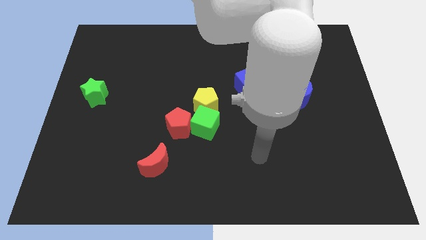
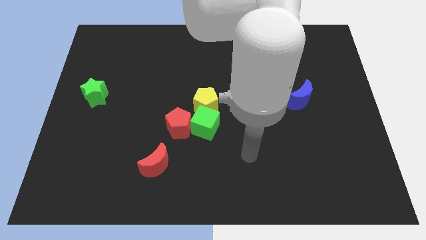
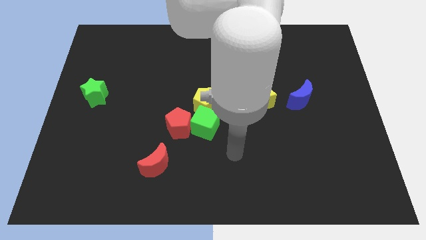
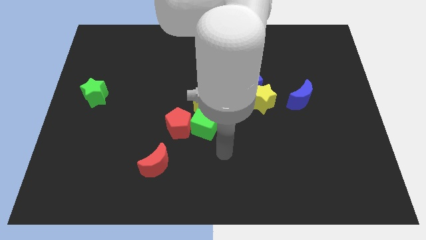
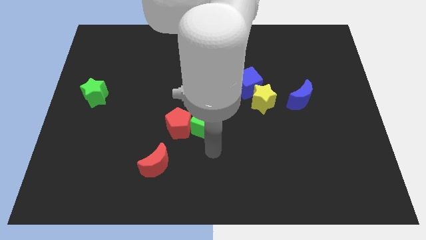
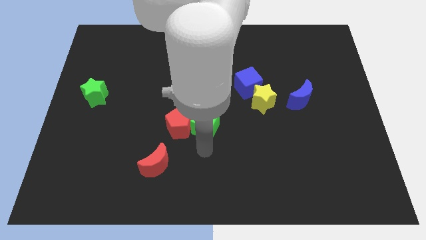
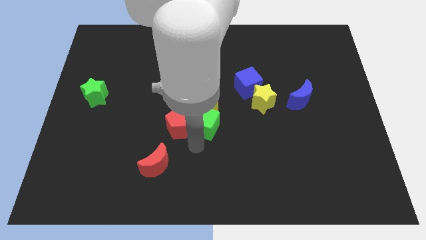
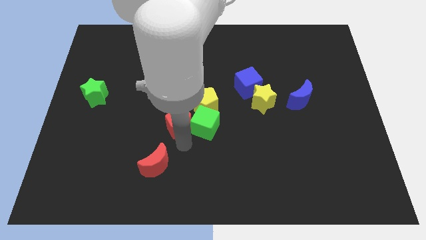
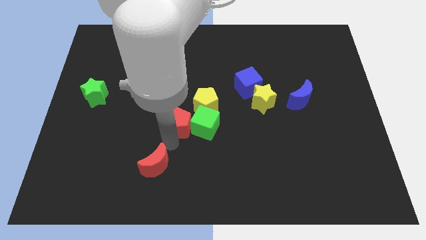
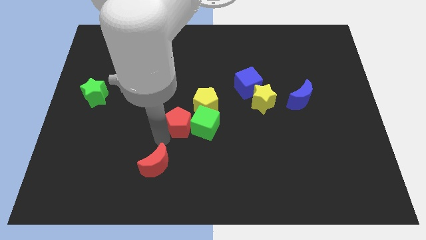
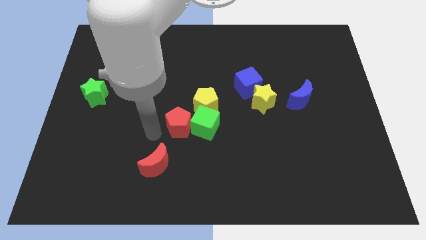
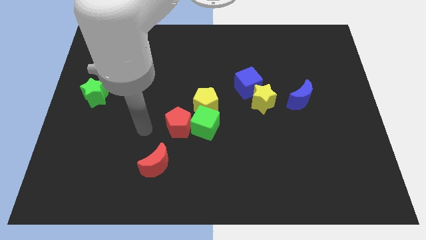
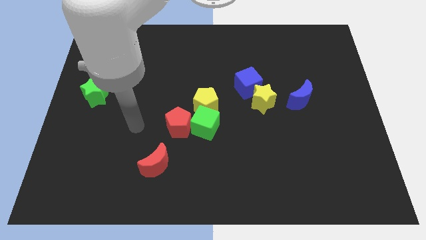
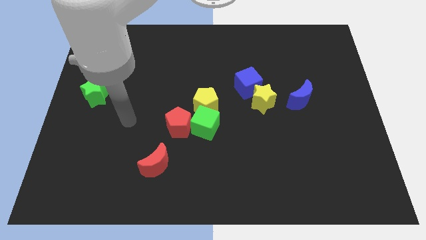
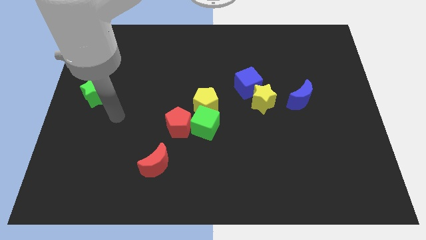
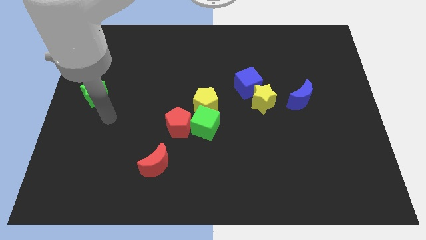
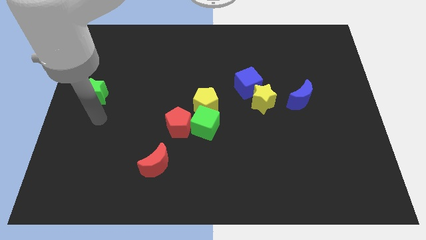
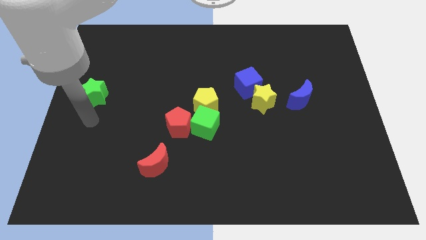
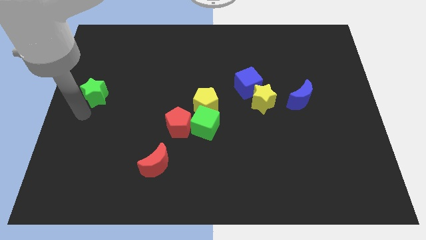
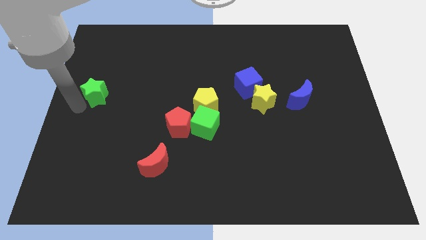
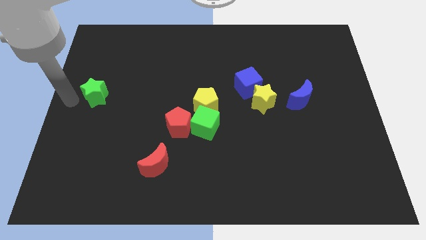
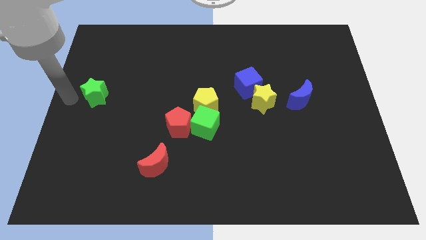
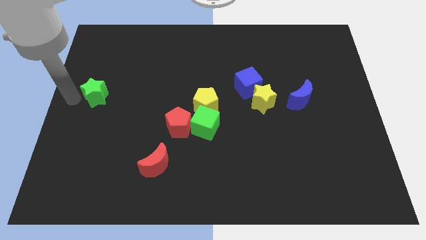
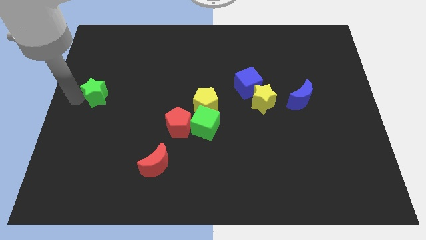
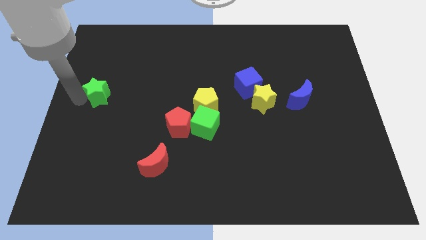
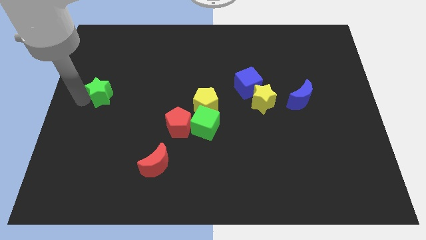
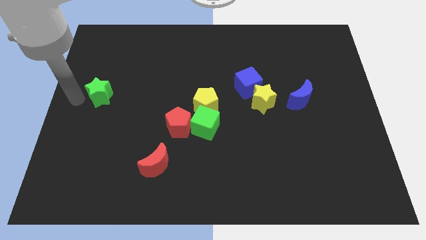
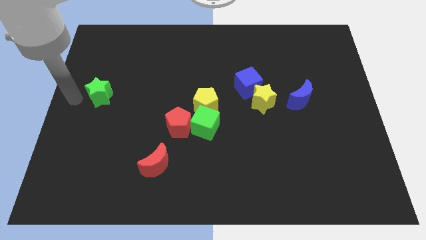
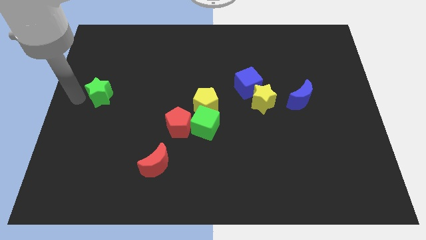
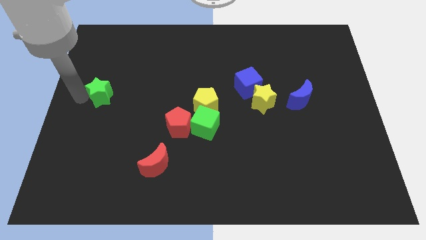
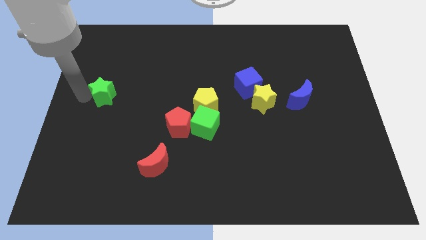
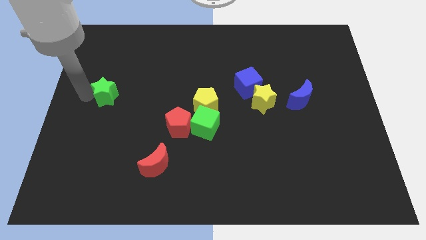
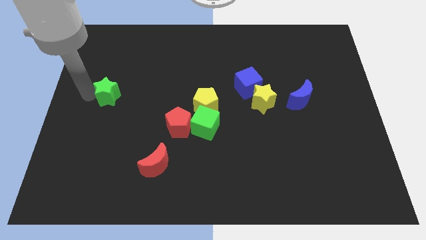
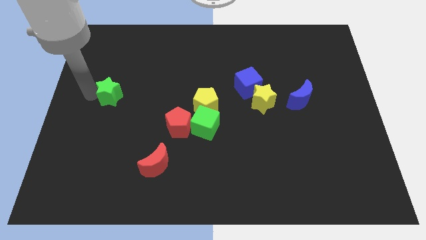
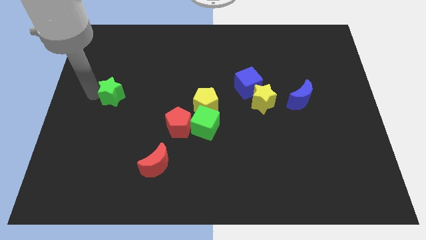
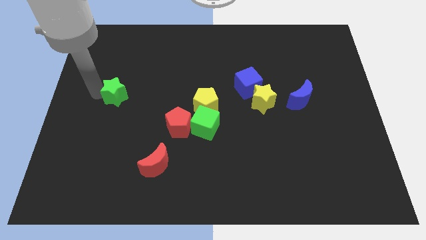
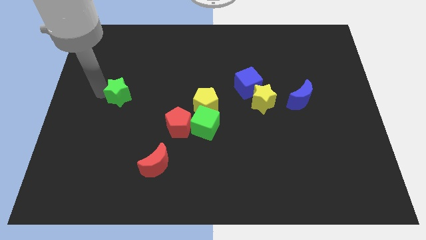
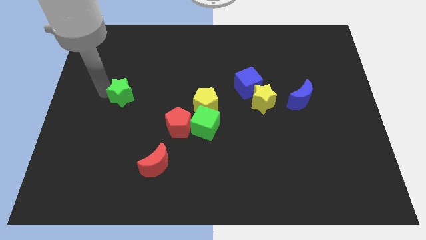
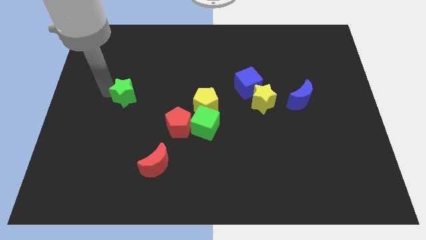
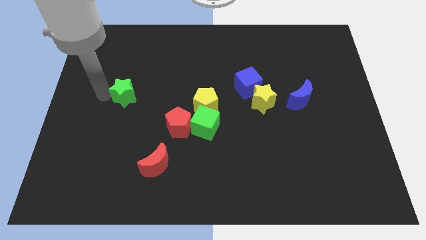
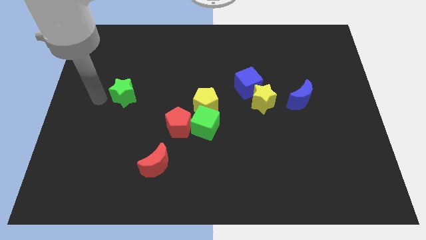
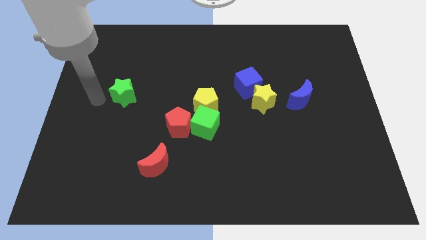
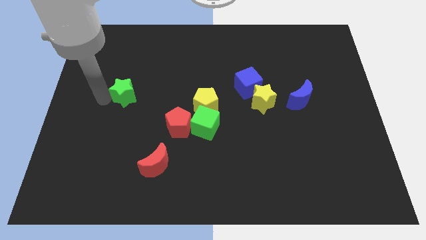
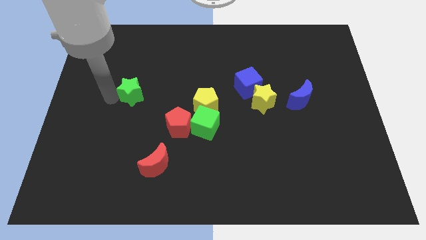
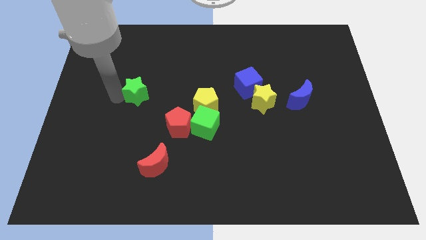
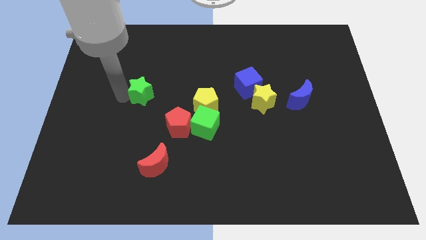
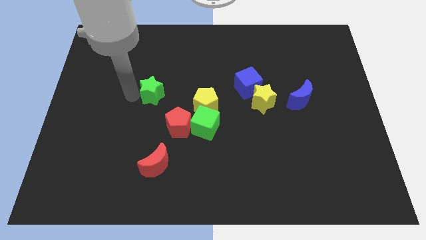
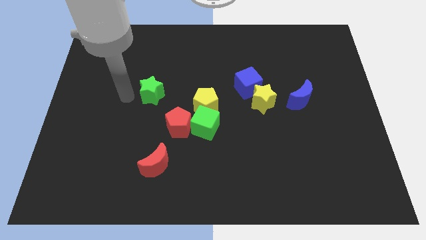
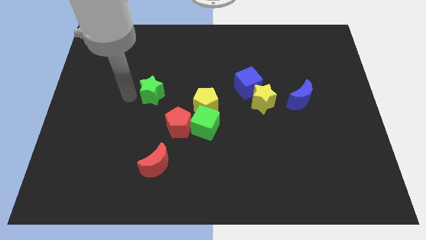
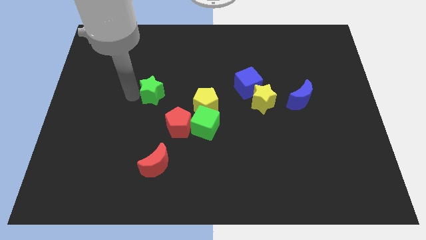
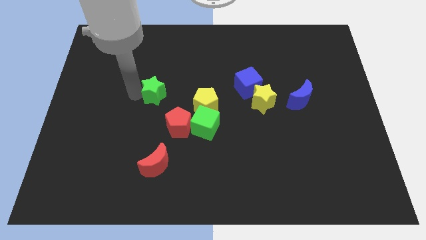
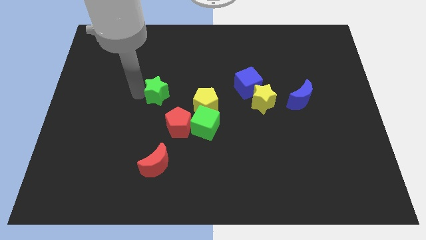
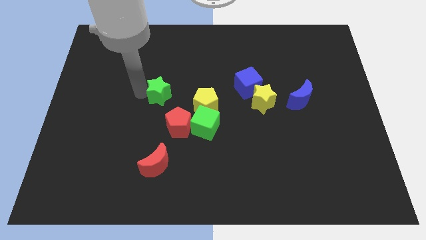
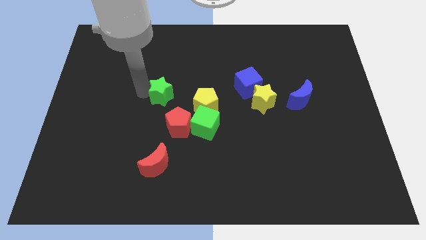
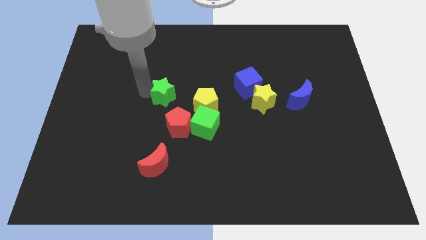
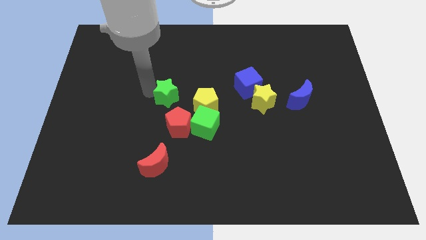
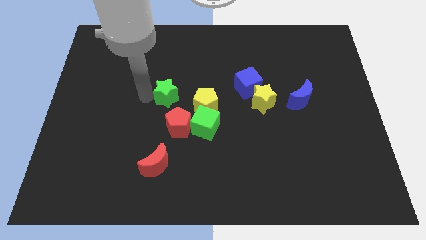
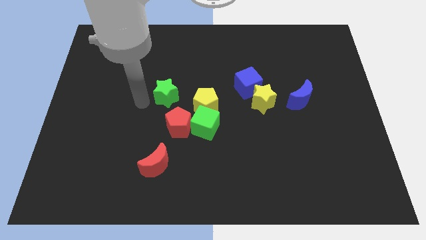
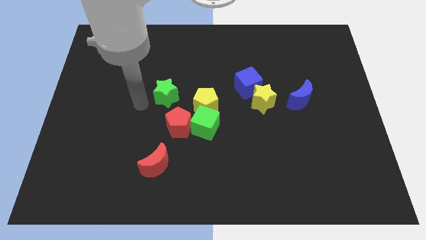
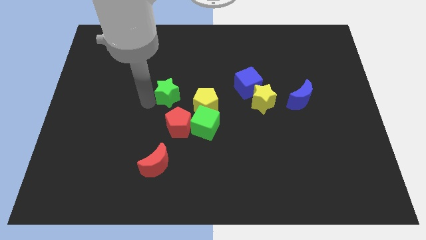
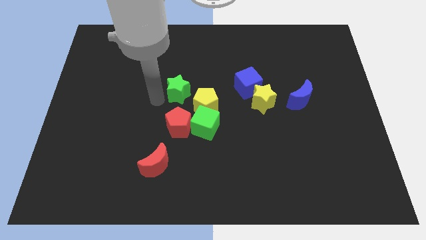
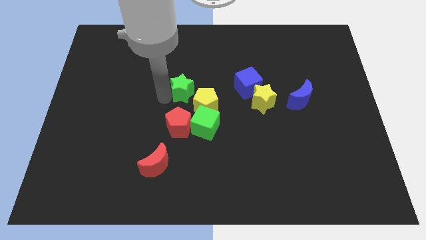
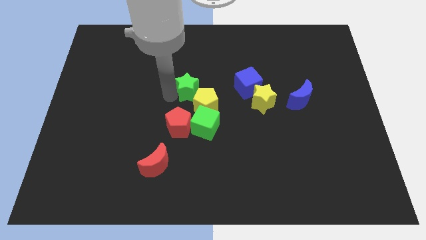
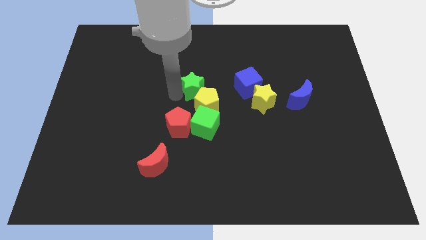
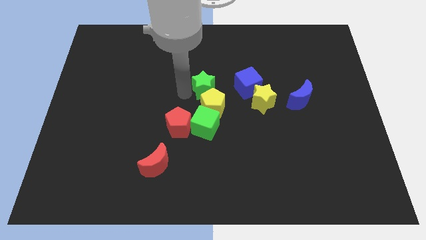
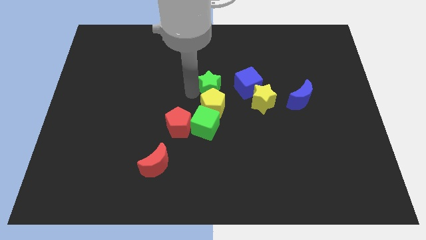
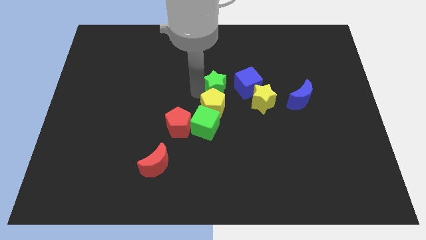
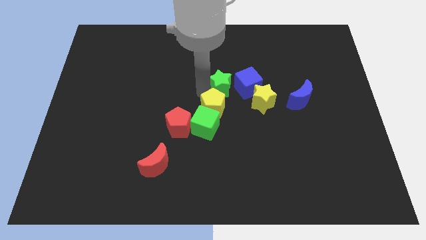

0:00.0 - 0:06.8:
move the green star to the top left side of the yellow star
